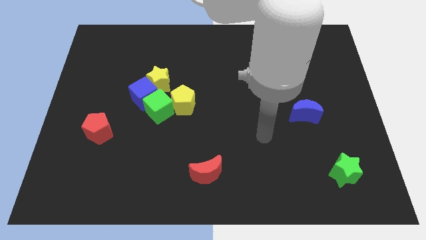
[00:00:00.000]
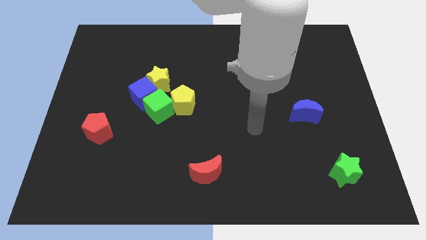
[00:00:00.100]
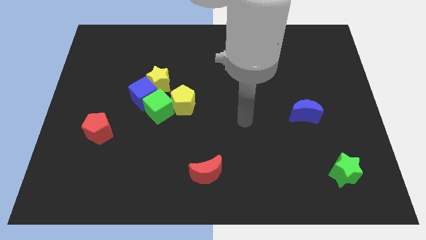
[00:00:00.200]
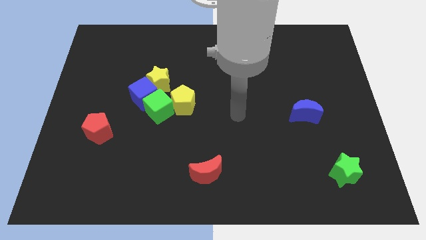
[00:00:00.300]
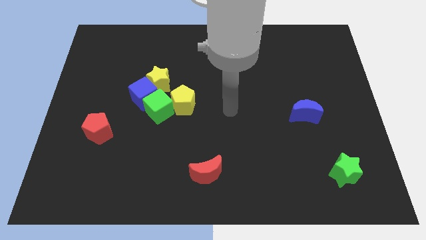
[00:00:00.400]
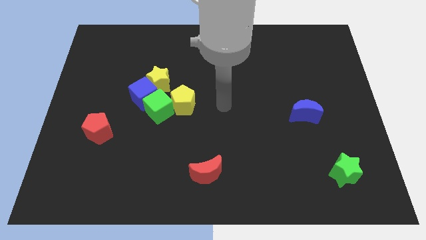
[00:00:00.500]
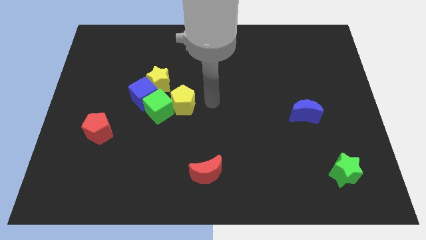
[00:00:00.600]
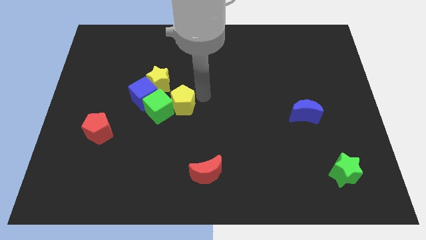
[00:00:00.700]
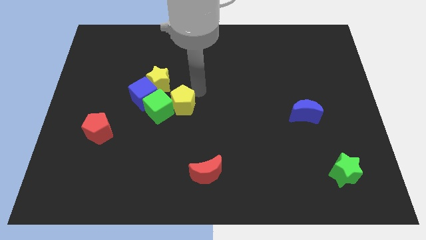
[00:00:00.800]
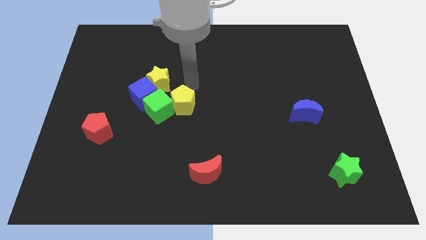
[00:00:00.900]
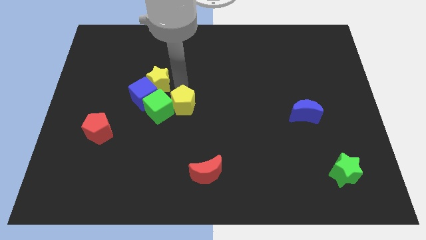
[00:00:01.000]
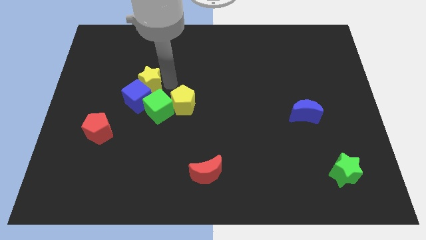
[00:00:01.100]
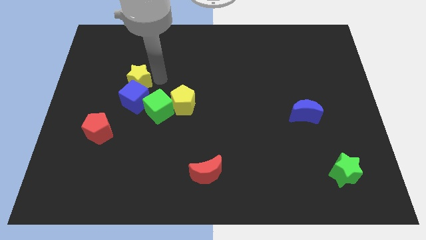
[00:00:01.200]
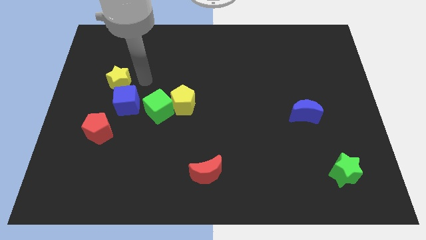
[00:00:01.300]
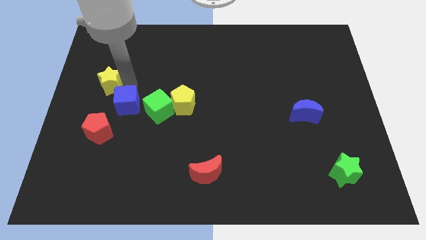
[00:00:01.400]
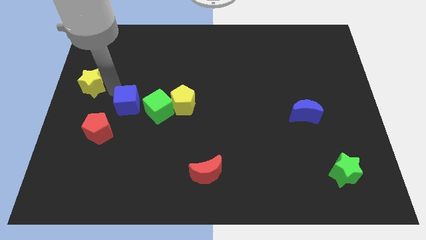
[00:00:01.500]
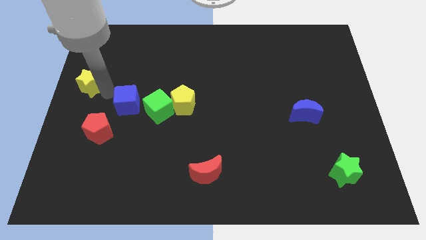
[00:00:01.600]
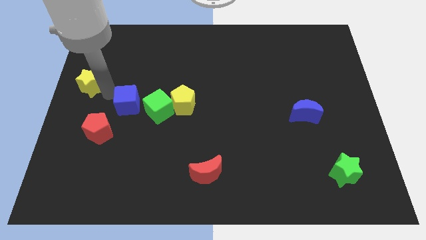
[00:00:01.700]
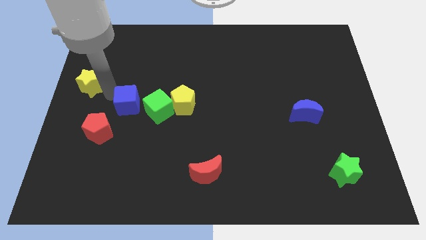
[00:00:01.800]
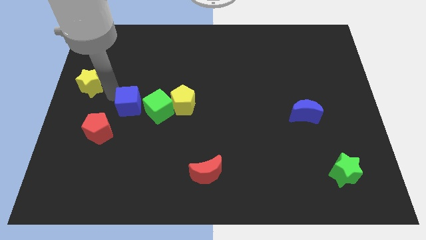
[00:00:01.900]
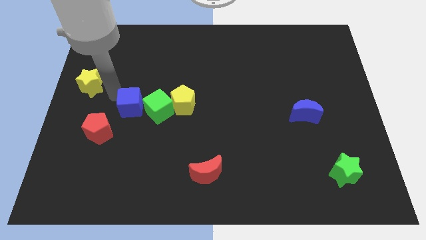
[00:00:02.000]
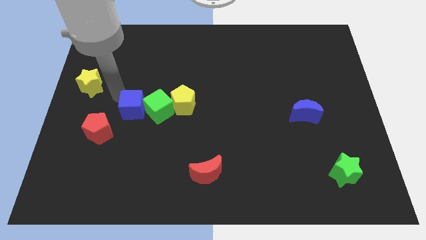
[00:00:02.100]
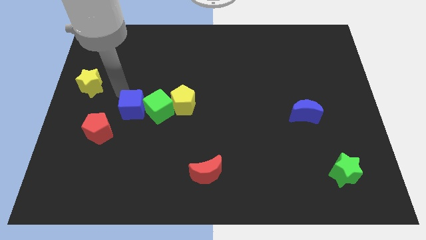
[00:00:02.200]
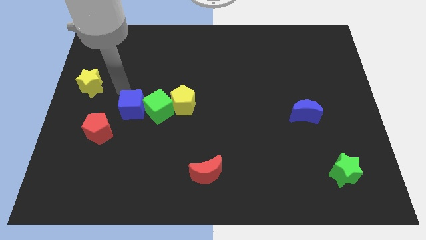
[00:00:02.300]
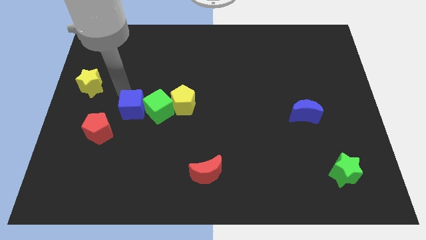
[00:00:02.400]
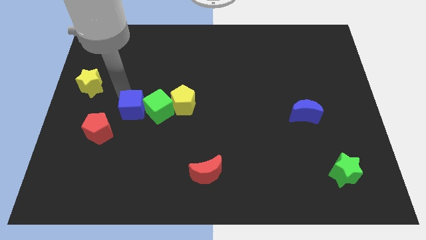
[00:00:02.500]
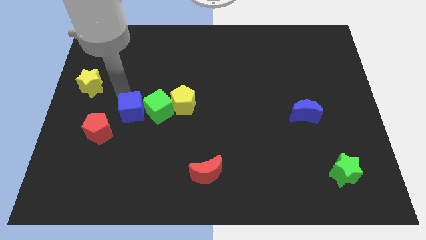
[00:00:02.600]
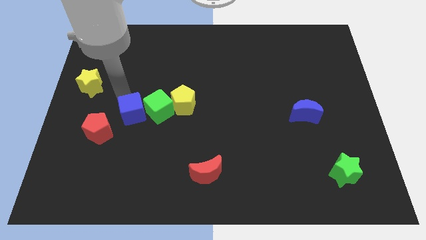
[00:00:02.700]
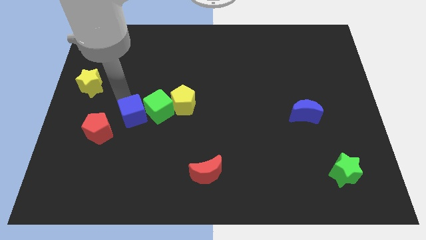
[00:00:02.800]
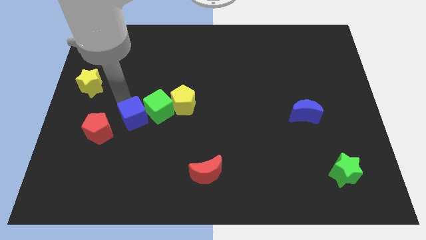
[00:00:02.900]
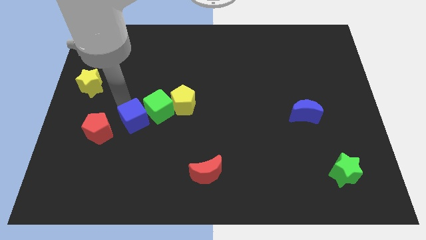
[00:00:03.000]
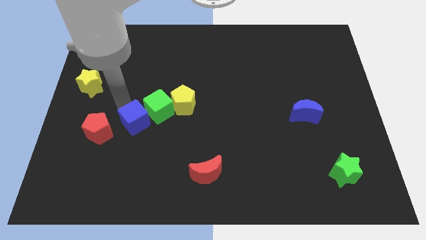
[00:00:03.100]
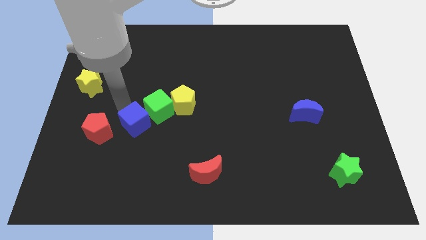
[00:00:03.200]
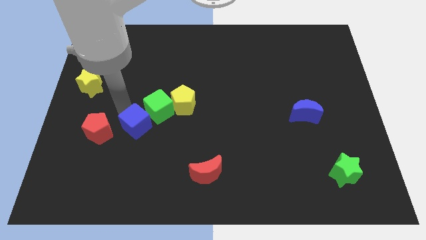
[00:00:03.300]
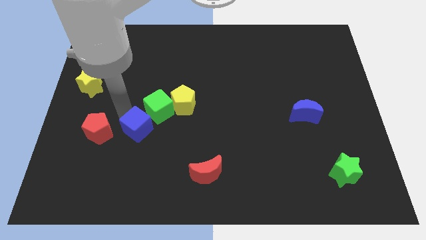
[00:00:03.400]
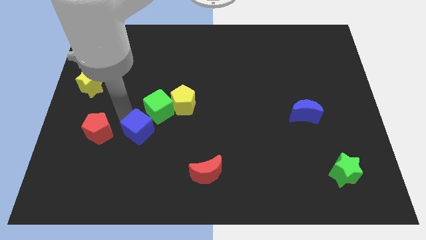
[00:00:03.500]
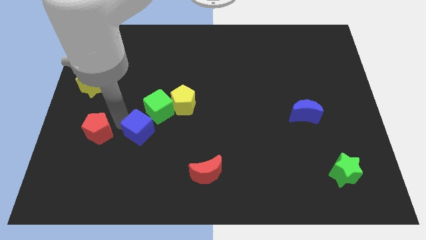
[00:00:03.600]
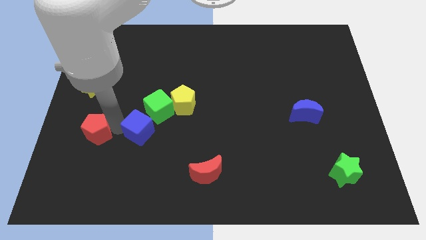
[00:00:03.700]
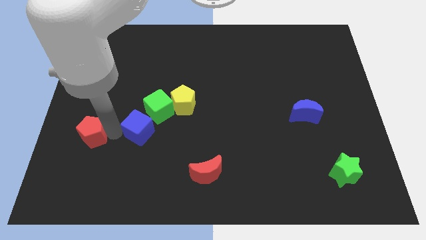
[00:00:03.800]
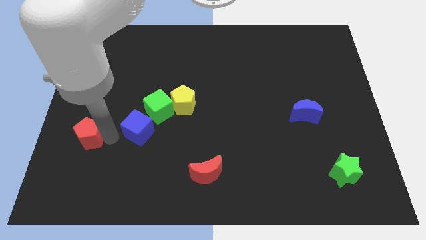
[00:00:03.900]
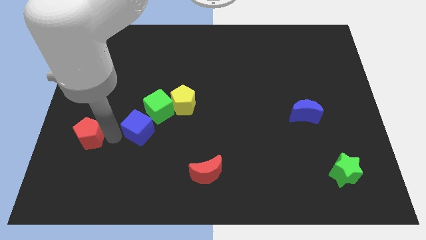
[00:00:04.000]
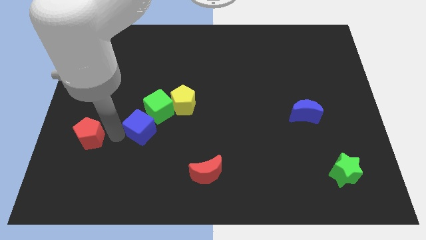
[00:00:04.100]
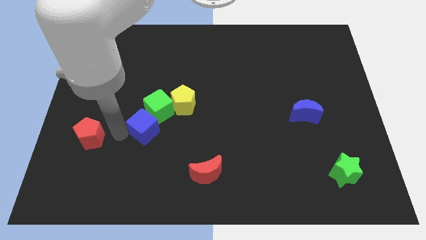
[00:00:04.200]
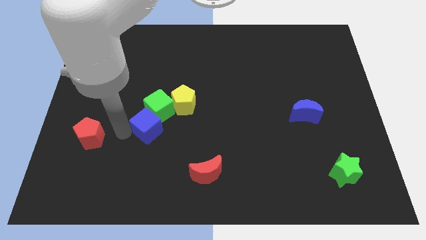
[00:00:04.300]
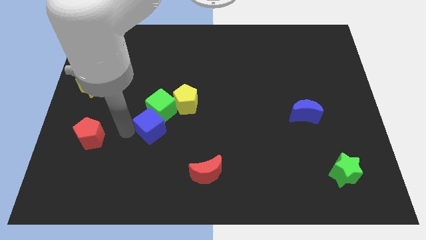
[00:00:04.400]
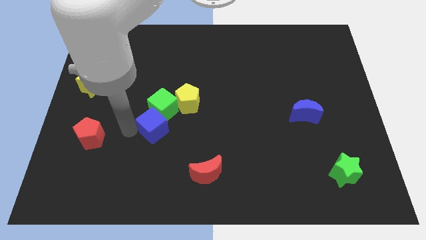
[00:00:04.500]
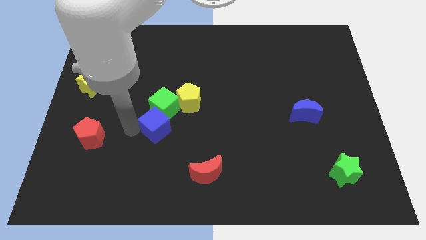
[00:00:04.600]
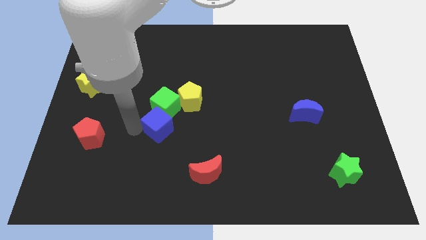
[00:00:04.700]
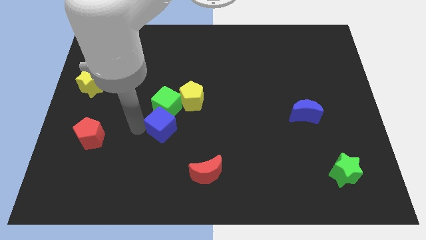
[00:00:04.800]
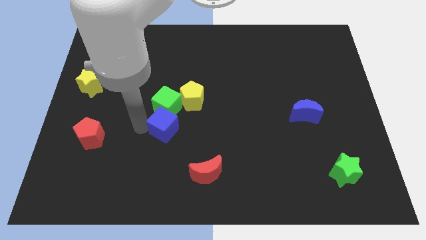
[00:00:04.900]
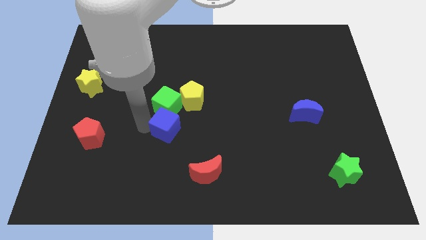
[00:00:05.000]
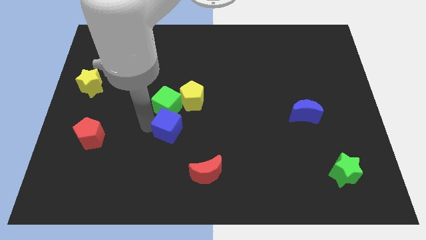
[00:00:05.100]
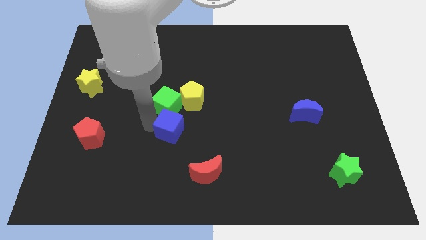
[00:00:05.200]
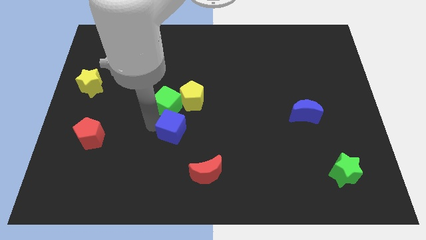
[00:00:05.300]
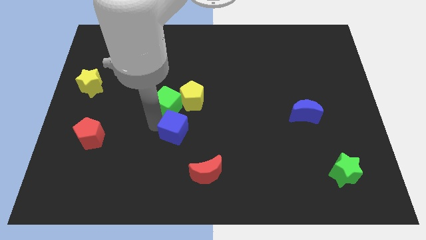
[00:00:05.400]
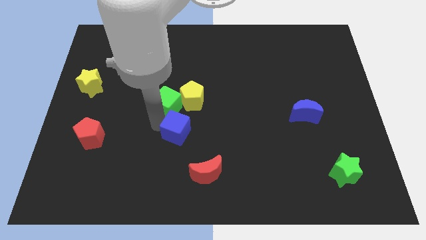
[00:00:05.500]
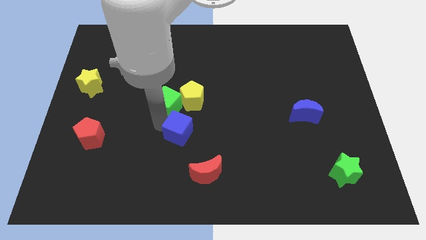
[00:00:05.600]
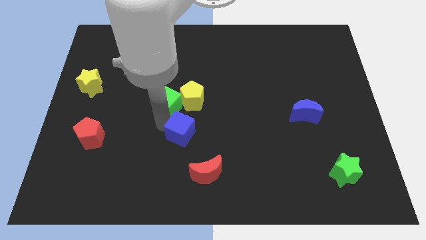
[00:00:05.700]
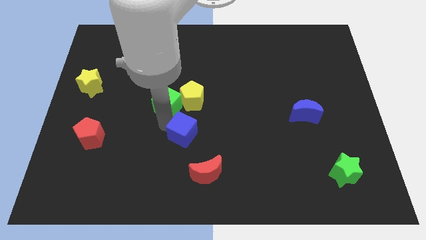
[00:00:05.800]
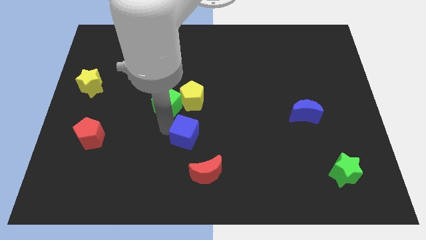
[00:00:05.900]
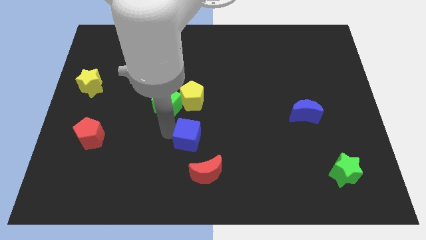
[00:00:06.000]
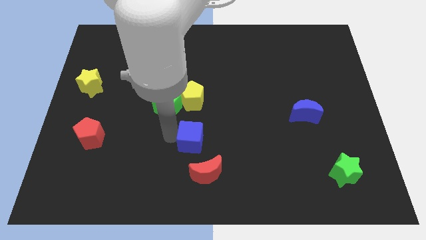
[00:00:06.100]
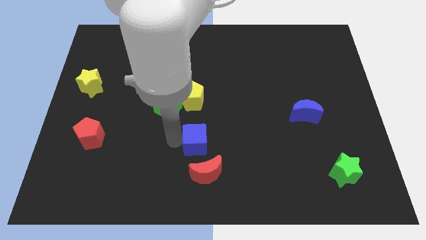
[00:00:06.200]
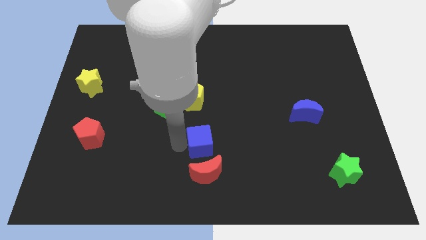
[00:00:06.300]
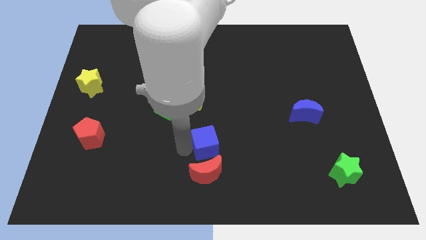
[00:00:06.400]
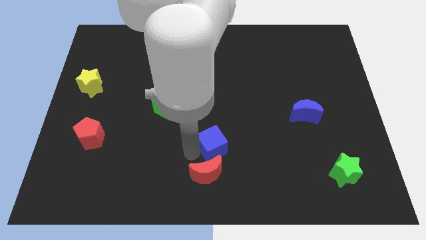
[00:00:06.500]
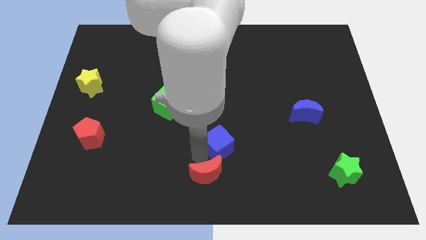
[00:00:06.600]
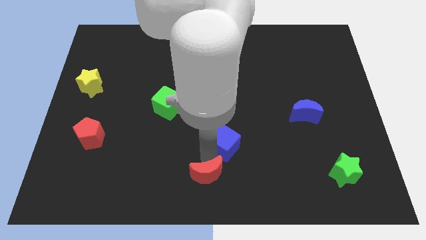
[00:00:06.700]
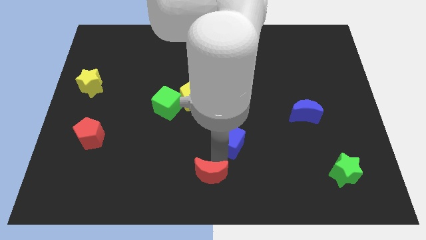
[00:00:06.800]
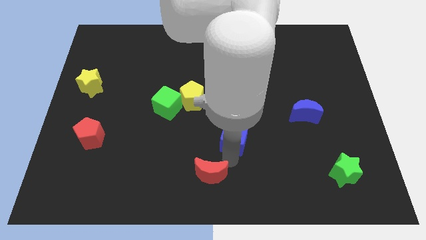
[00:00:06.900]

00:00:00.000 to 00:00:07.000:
move the blue cube a little to the right

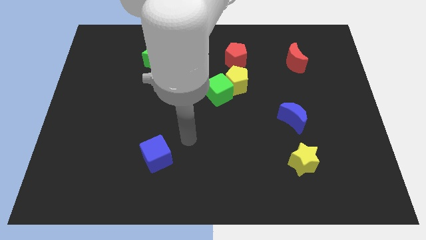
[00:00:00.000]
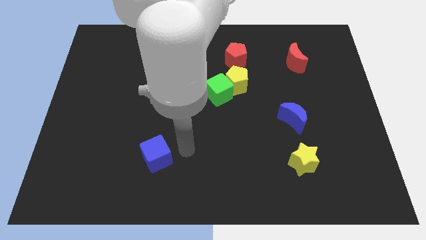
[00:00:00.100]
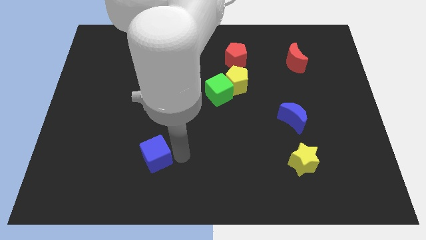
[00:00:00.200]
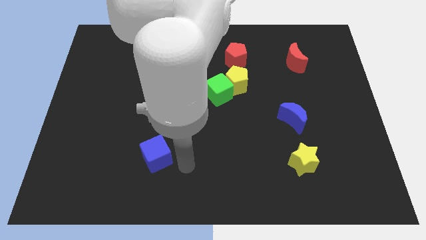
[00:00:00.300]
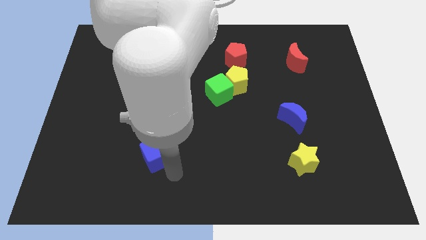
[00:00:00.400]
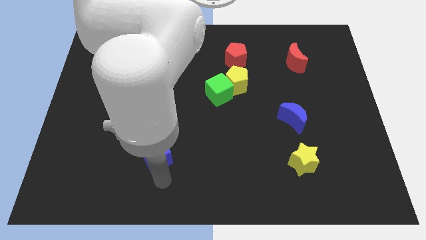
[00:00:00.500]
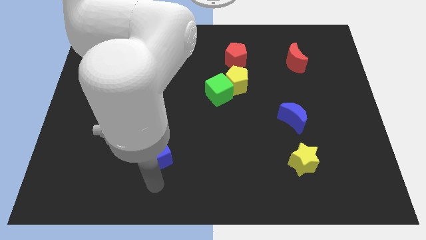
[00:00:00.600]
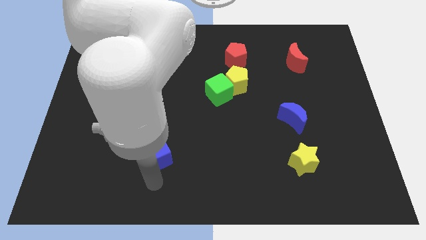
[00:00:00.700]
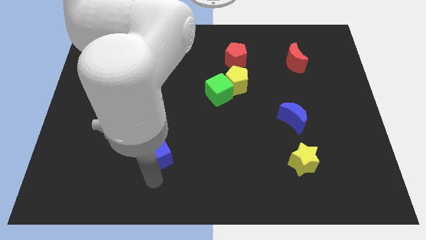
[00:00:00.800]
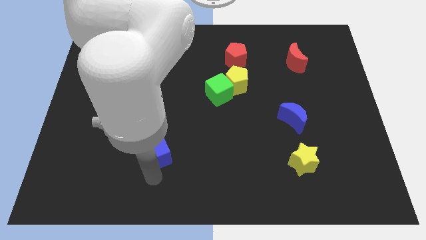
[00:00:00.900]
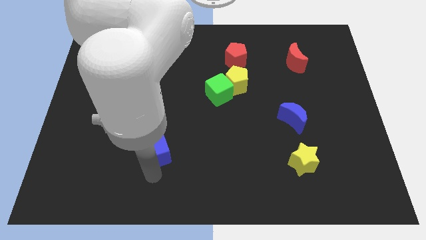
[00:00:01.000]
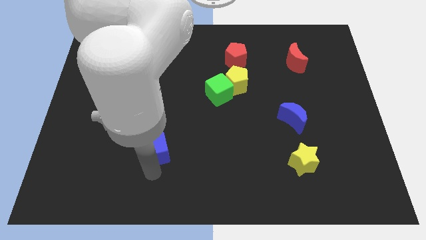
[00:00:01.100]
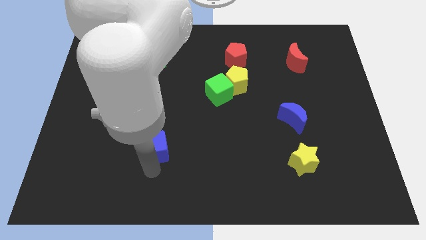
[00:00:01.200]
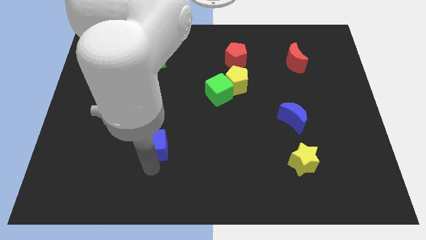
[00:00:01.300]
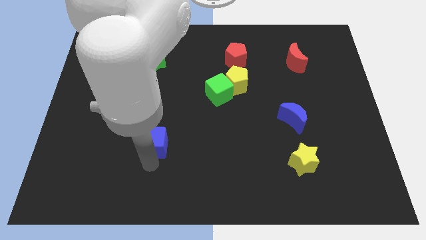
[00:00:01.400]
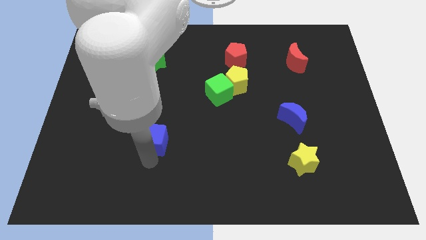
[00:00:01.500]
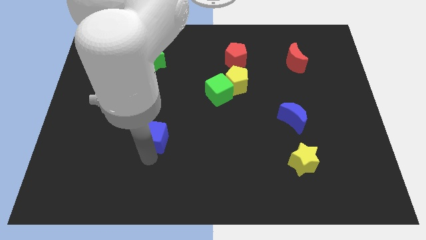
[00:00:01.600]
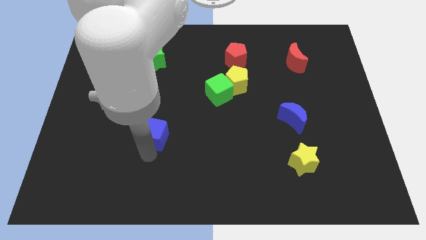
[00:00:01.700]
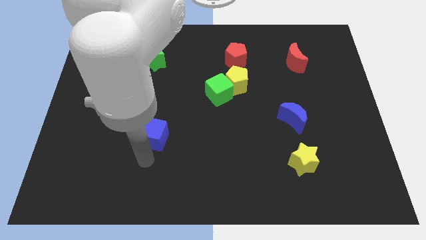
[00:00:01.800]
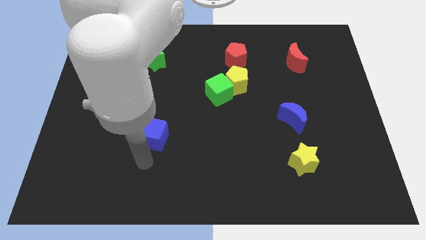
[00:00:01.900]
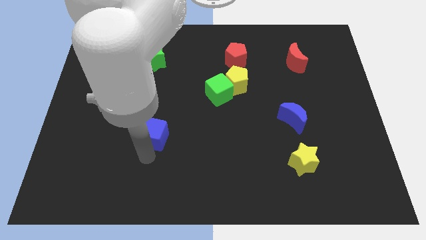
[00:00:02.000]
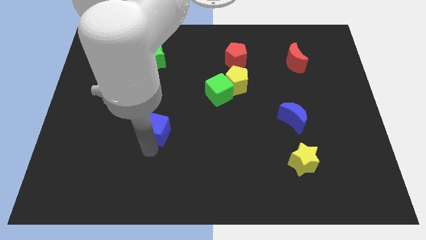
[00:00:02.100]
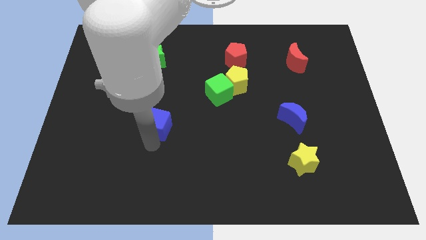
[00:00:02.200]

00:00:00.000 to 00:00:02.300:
push the blue cube upwards slightly
